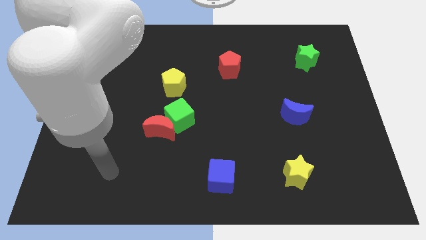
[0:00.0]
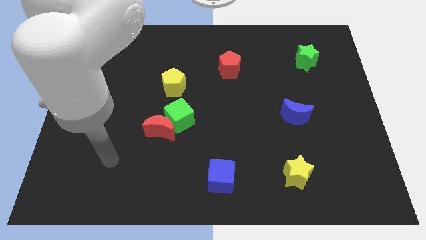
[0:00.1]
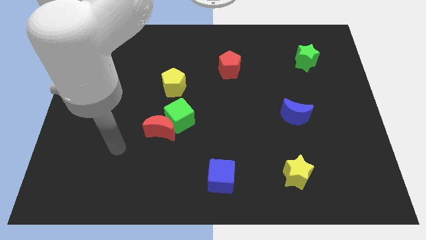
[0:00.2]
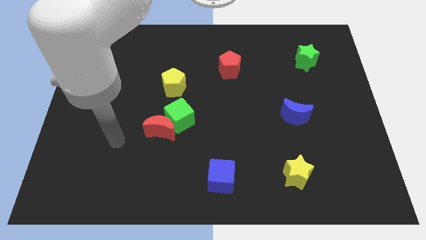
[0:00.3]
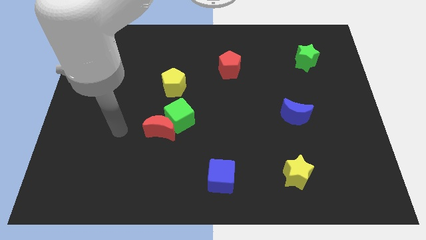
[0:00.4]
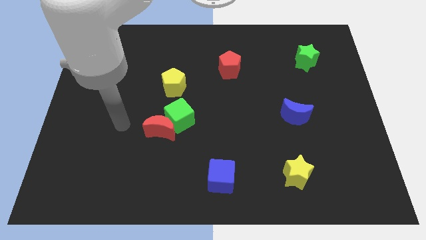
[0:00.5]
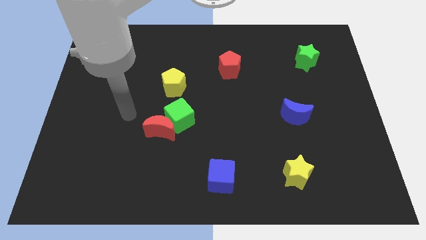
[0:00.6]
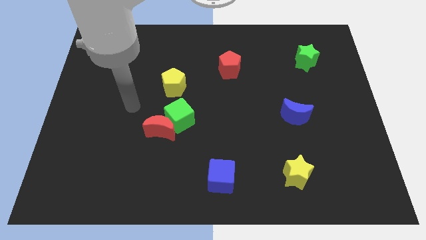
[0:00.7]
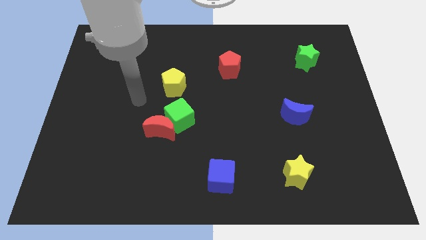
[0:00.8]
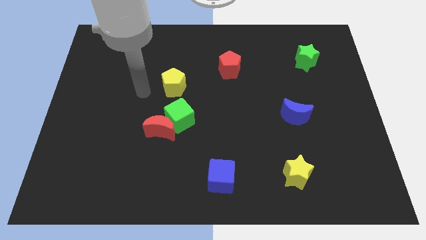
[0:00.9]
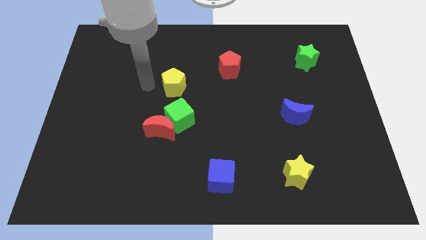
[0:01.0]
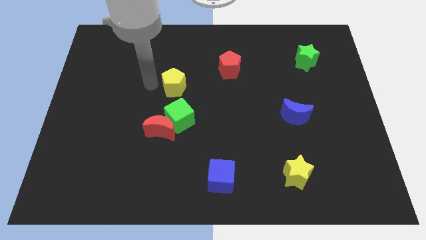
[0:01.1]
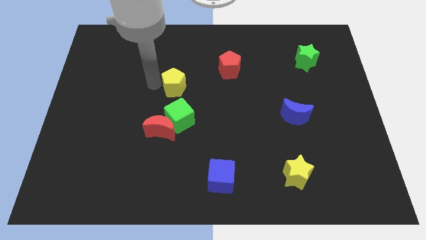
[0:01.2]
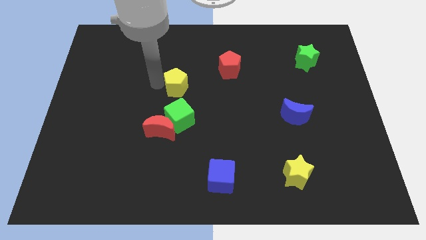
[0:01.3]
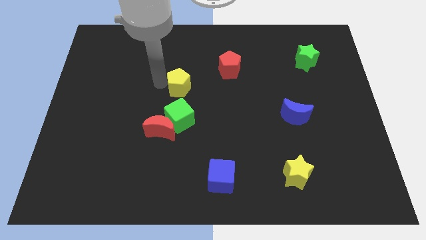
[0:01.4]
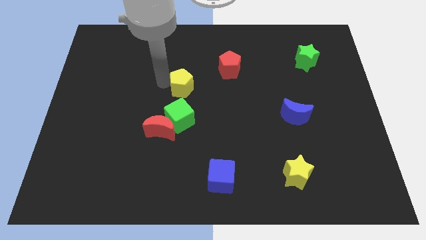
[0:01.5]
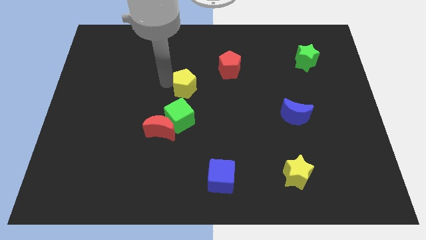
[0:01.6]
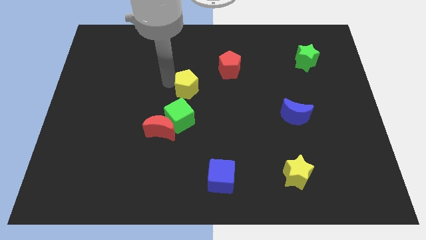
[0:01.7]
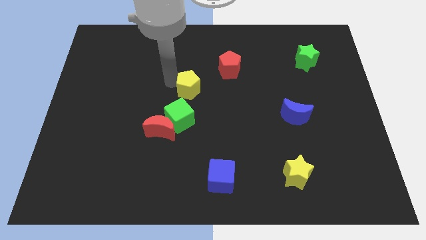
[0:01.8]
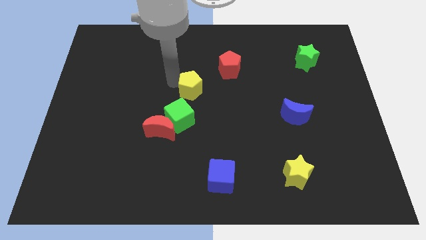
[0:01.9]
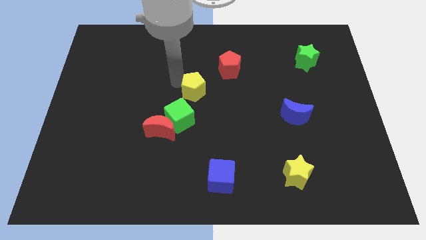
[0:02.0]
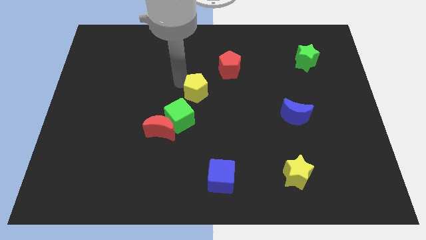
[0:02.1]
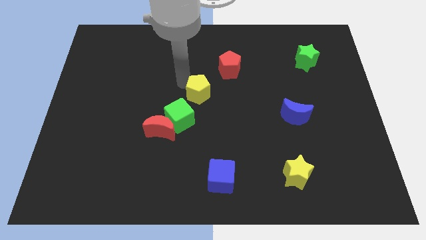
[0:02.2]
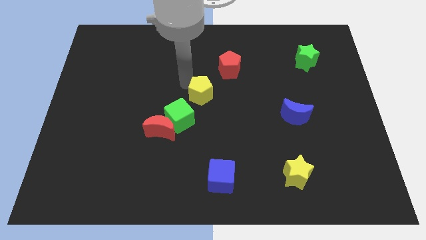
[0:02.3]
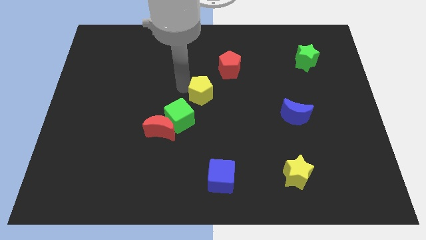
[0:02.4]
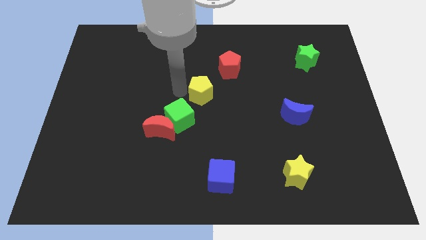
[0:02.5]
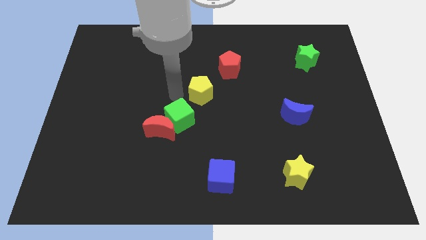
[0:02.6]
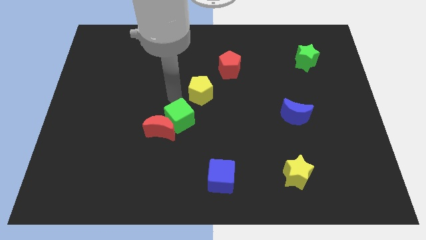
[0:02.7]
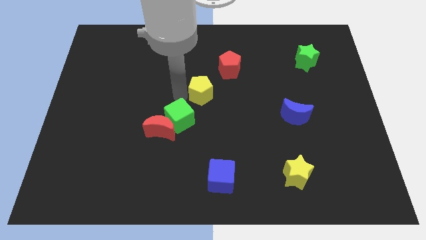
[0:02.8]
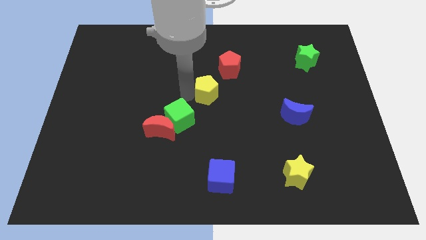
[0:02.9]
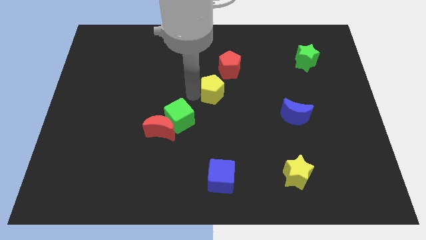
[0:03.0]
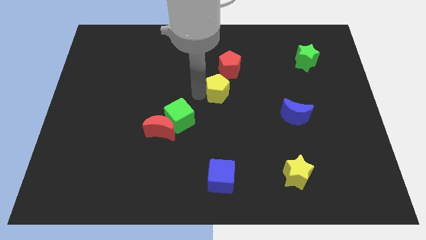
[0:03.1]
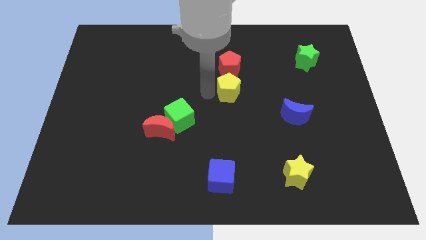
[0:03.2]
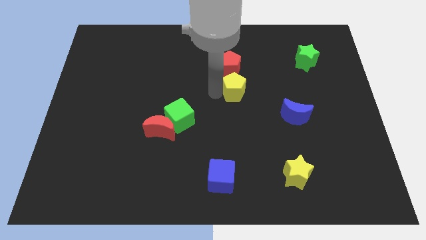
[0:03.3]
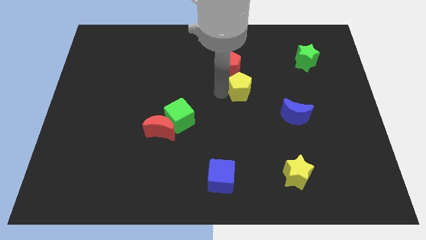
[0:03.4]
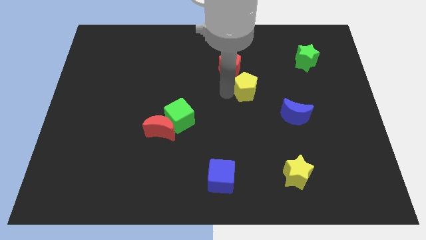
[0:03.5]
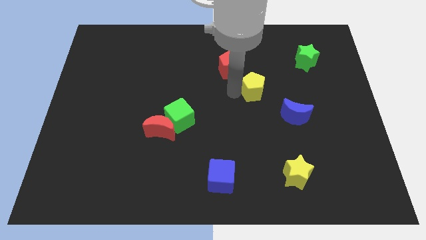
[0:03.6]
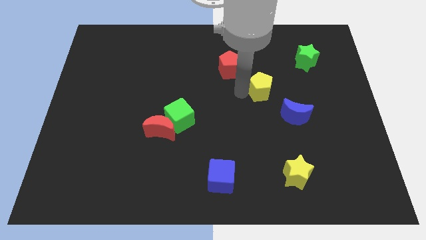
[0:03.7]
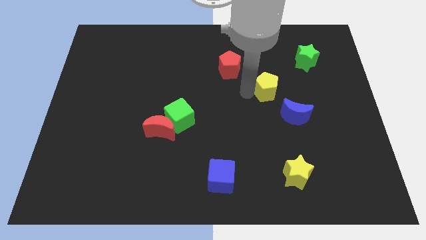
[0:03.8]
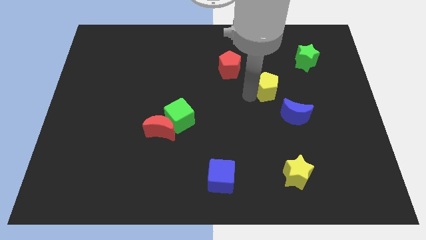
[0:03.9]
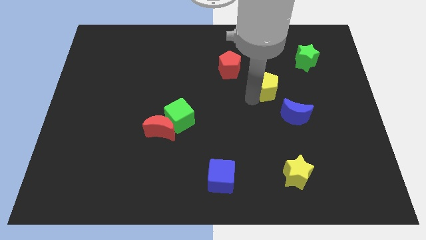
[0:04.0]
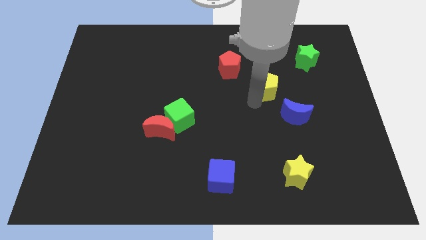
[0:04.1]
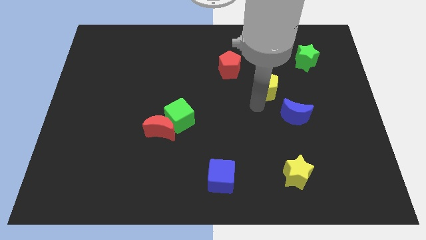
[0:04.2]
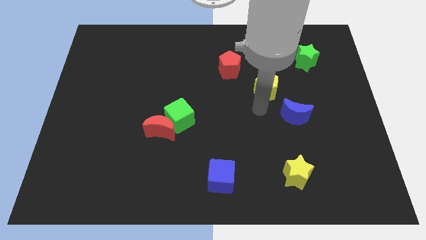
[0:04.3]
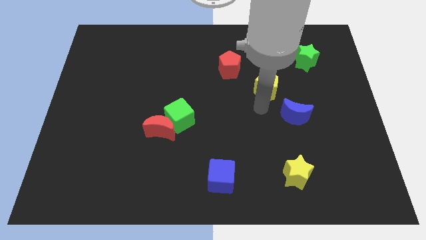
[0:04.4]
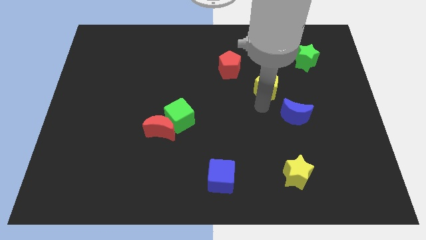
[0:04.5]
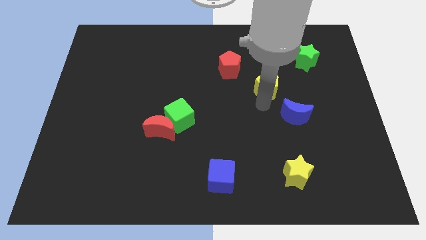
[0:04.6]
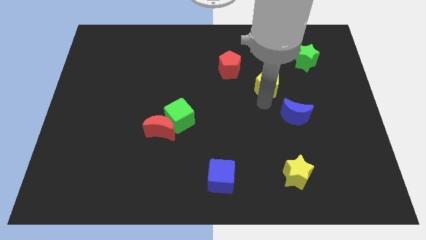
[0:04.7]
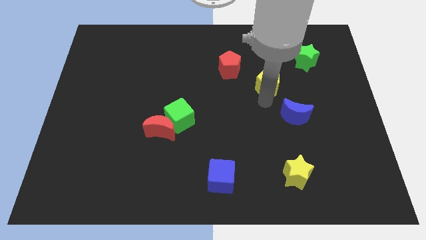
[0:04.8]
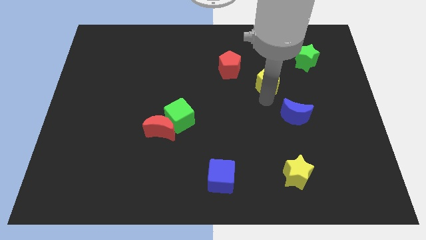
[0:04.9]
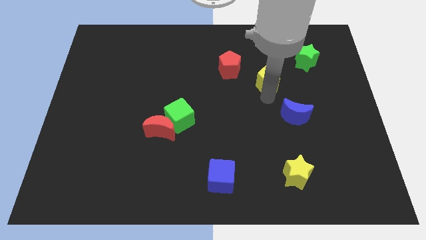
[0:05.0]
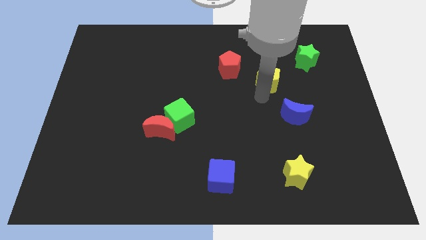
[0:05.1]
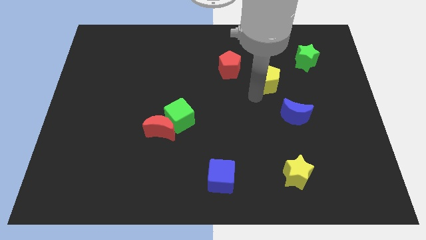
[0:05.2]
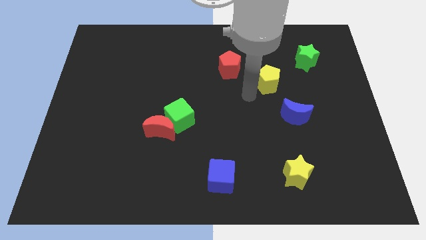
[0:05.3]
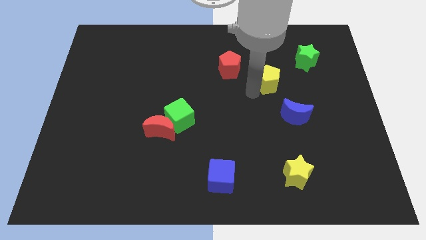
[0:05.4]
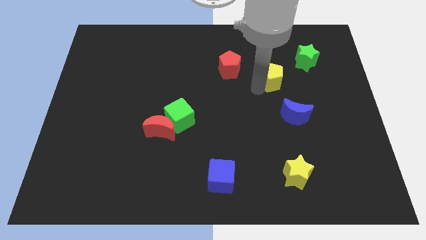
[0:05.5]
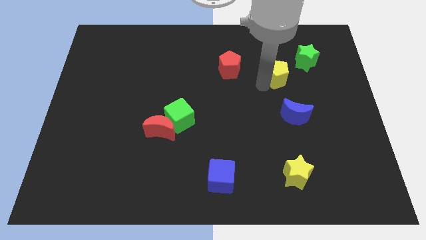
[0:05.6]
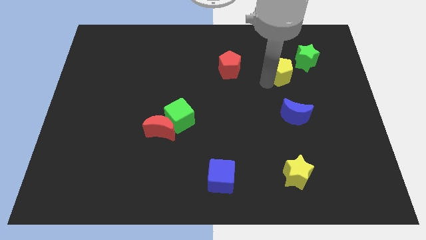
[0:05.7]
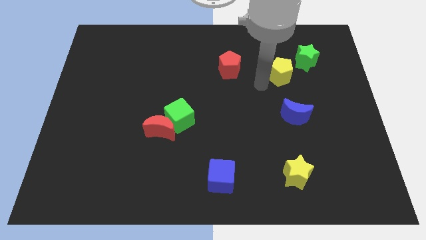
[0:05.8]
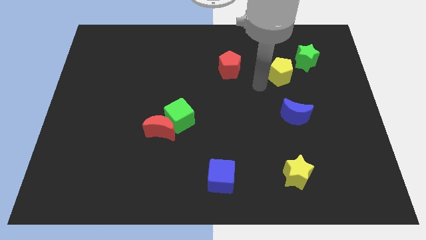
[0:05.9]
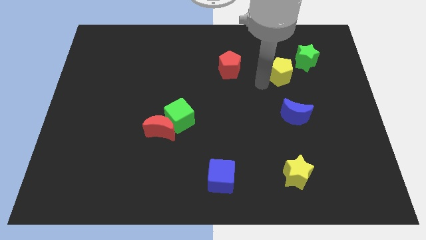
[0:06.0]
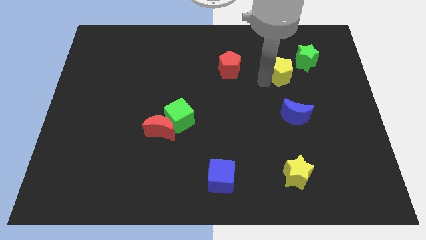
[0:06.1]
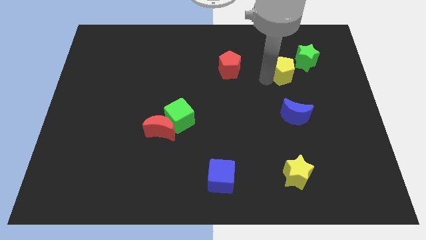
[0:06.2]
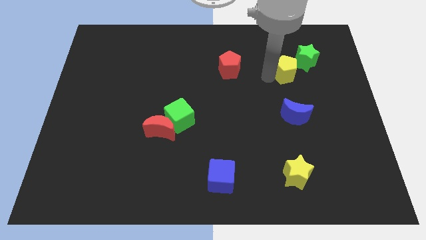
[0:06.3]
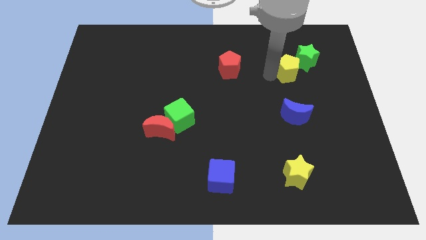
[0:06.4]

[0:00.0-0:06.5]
put the yellow pentagon to the green star
